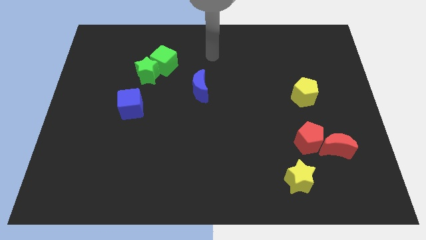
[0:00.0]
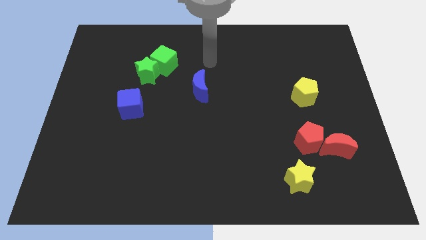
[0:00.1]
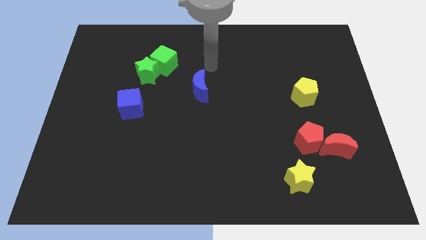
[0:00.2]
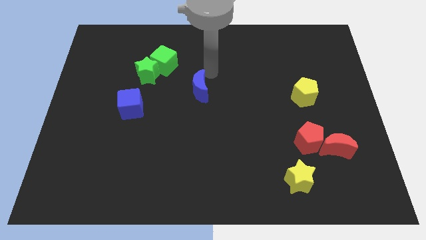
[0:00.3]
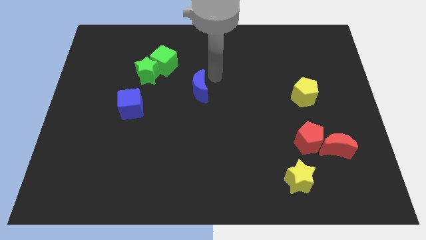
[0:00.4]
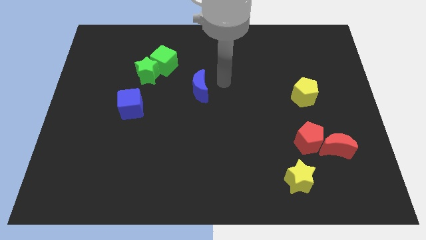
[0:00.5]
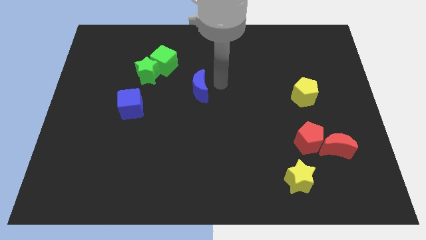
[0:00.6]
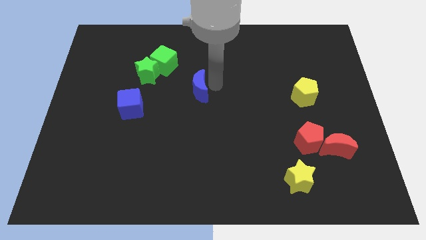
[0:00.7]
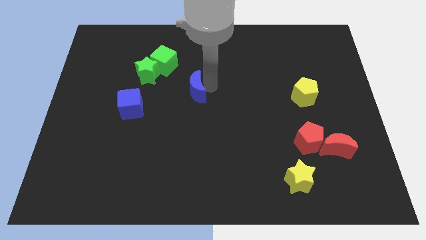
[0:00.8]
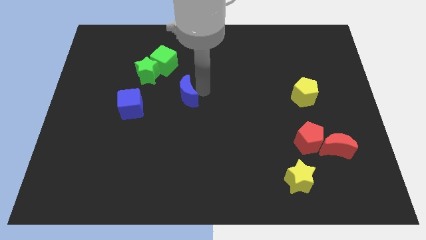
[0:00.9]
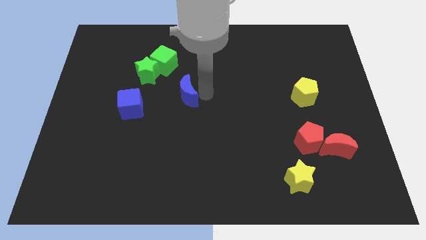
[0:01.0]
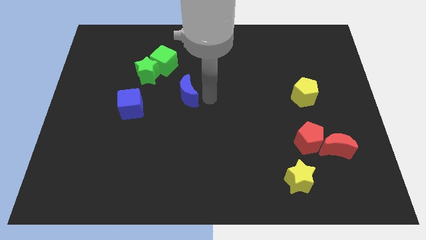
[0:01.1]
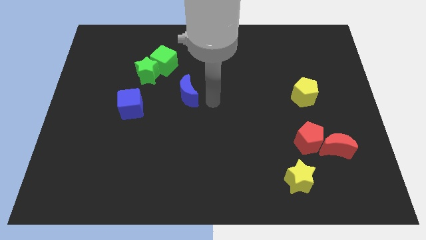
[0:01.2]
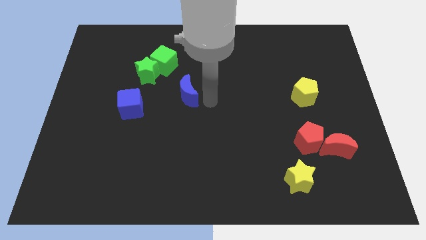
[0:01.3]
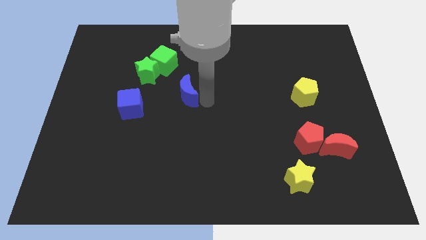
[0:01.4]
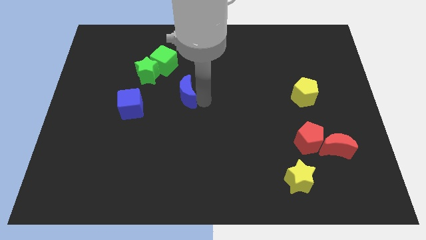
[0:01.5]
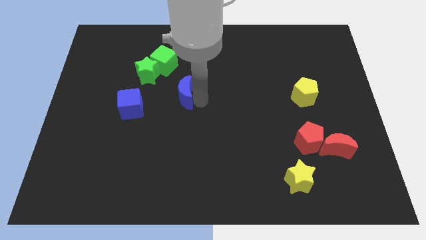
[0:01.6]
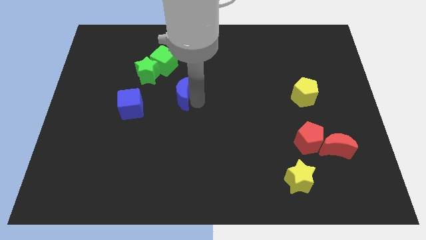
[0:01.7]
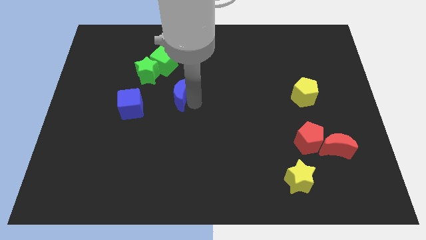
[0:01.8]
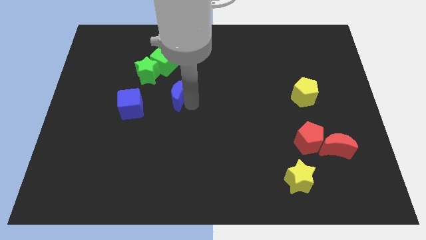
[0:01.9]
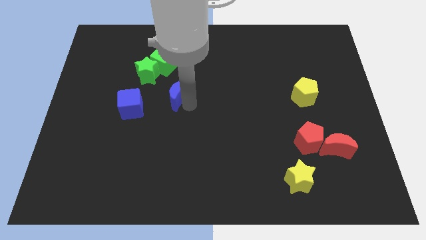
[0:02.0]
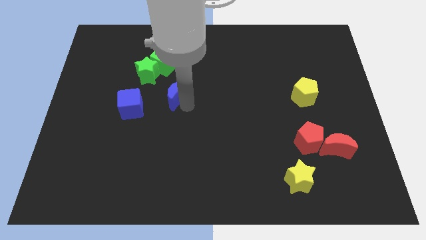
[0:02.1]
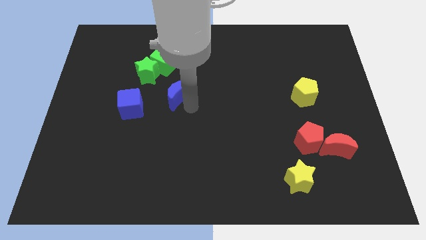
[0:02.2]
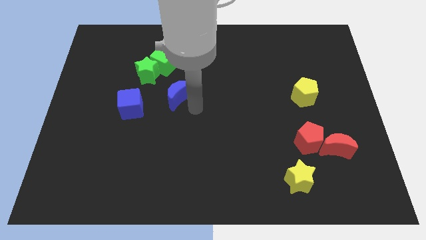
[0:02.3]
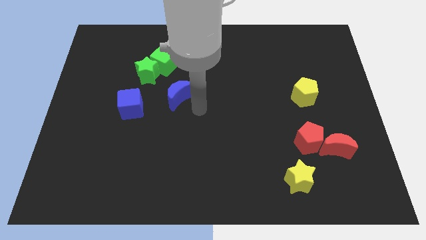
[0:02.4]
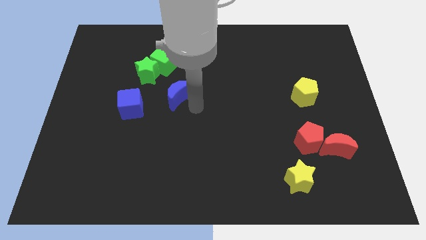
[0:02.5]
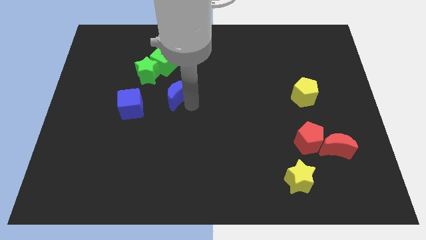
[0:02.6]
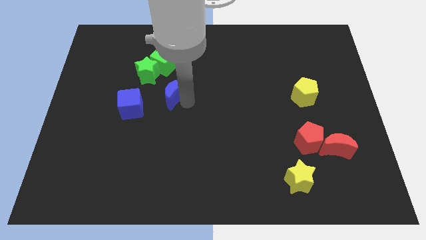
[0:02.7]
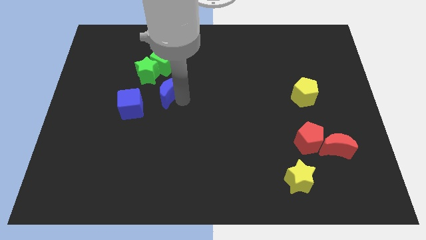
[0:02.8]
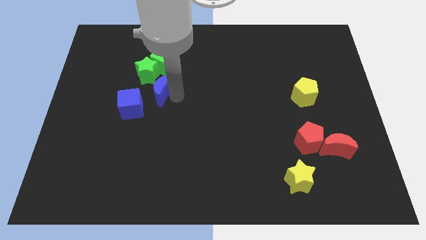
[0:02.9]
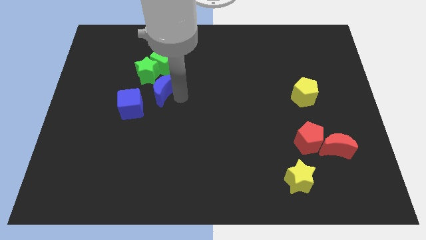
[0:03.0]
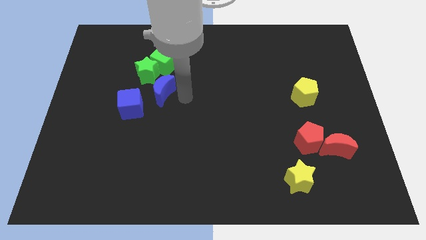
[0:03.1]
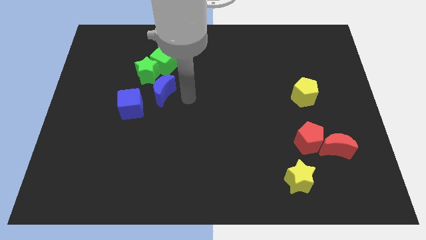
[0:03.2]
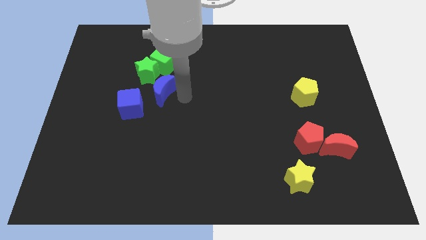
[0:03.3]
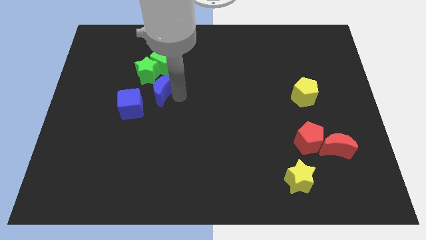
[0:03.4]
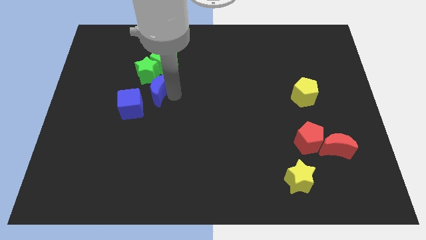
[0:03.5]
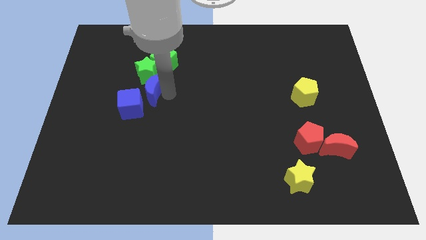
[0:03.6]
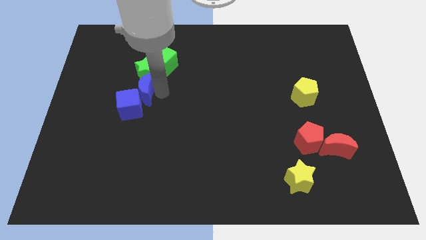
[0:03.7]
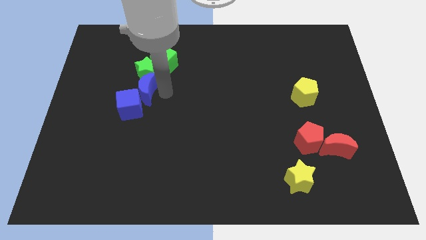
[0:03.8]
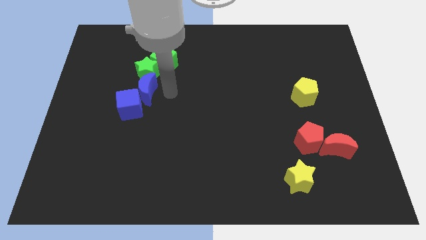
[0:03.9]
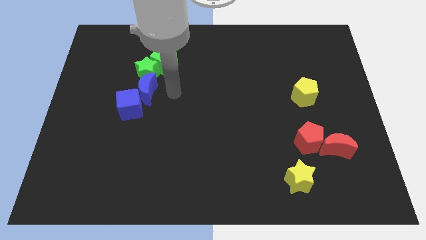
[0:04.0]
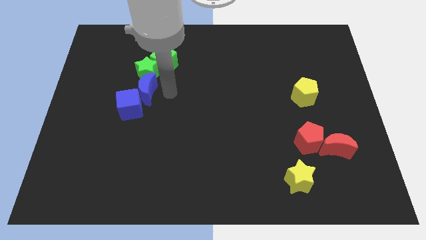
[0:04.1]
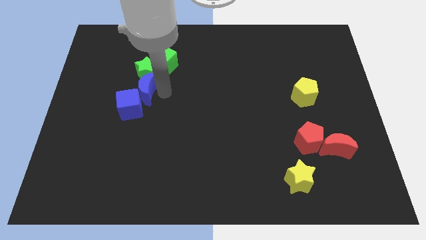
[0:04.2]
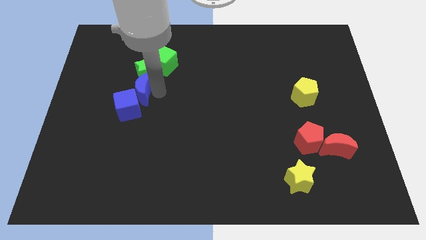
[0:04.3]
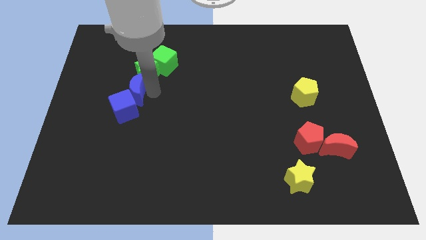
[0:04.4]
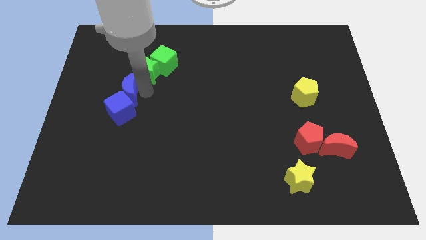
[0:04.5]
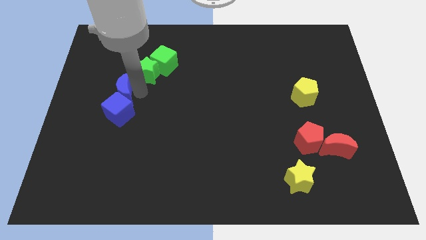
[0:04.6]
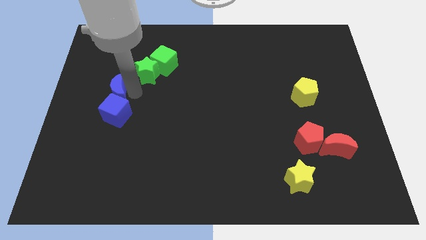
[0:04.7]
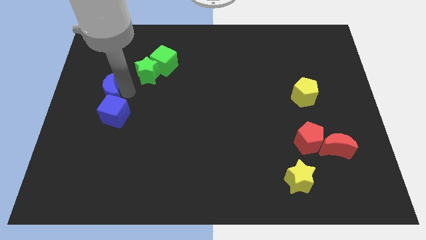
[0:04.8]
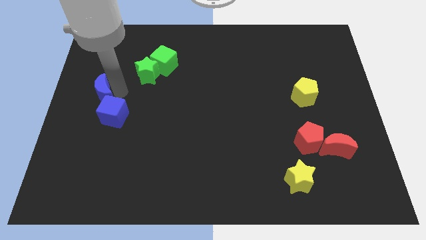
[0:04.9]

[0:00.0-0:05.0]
push the blue moon to the left side of the board

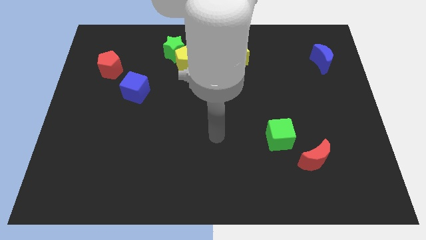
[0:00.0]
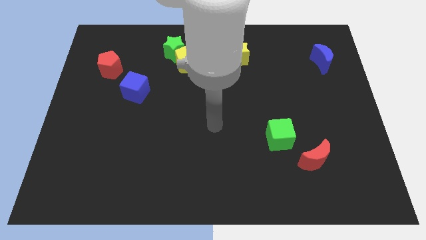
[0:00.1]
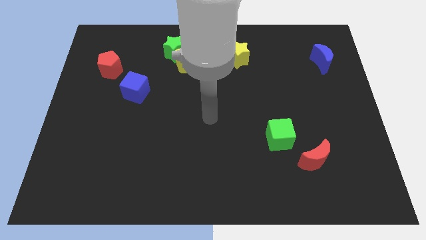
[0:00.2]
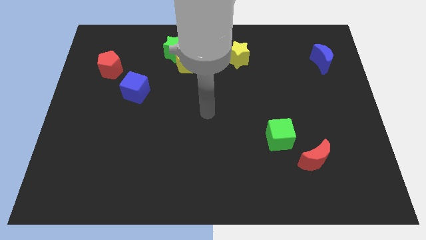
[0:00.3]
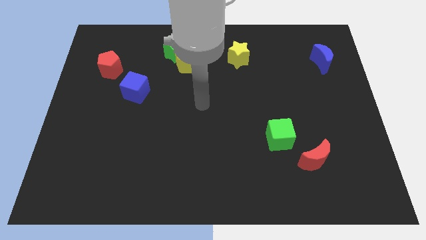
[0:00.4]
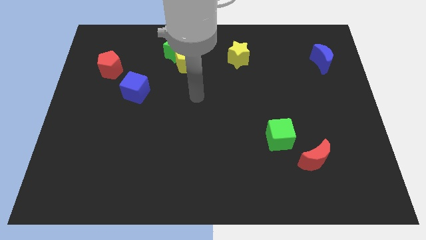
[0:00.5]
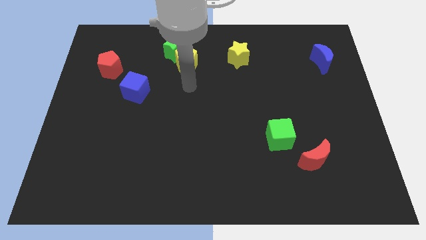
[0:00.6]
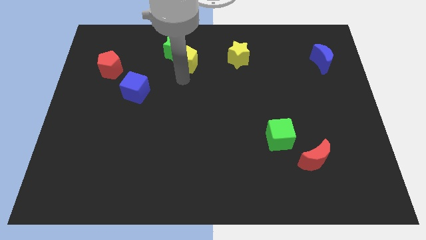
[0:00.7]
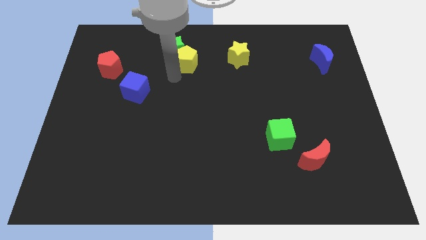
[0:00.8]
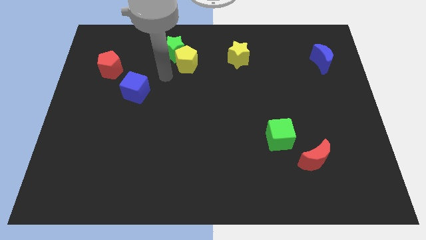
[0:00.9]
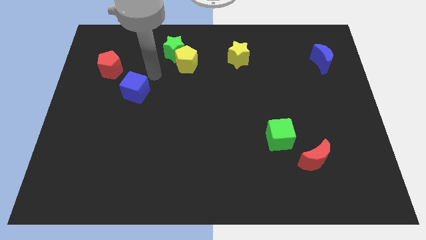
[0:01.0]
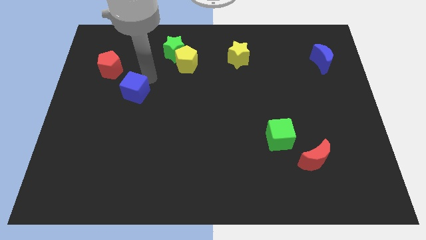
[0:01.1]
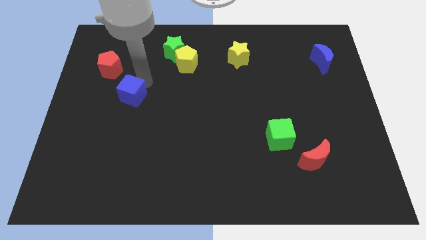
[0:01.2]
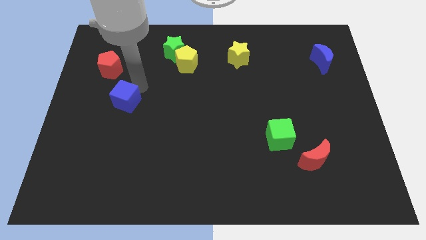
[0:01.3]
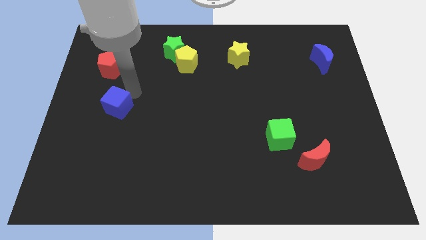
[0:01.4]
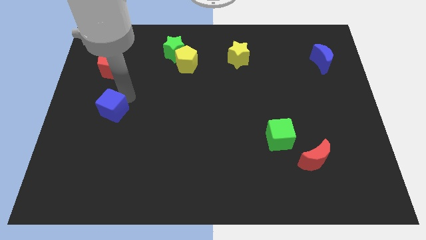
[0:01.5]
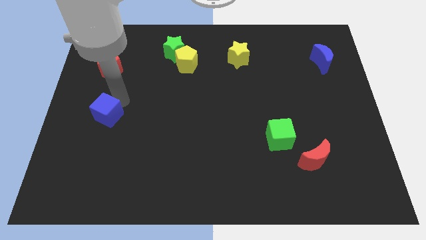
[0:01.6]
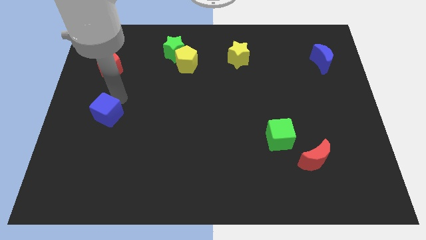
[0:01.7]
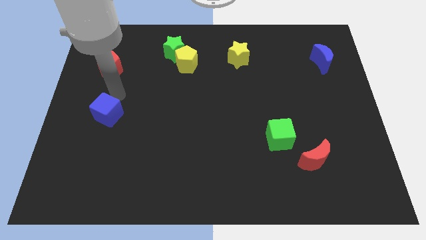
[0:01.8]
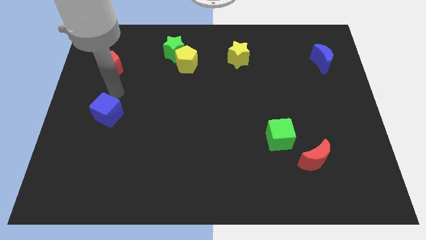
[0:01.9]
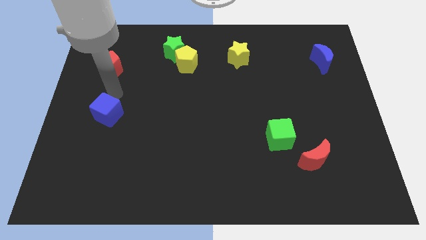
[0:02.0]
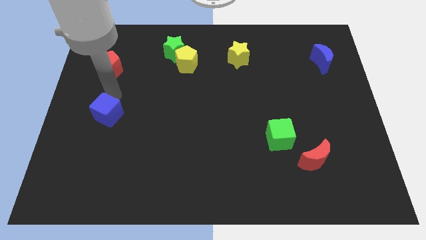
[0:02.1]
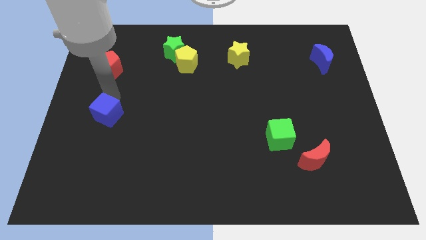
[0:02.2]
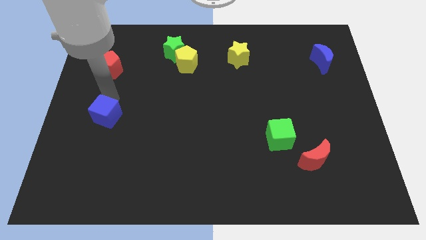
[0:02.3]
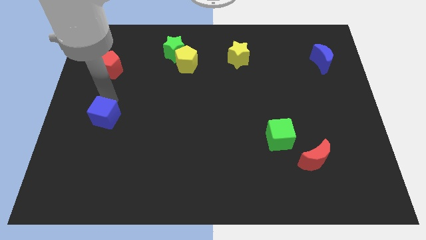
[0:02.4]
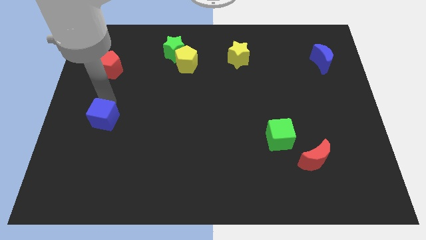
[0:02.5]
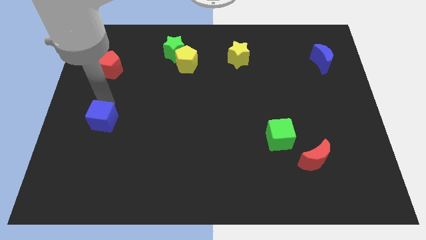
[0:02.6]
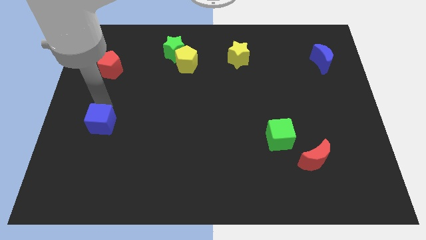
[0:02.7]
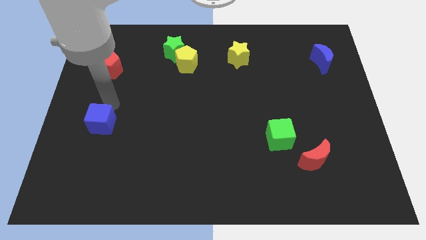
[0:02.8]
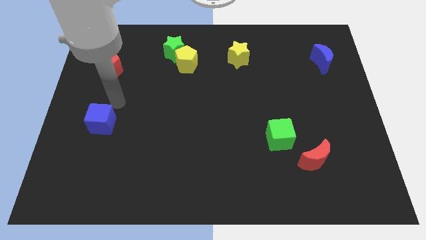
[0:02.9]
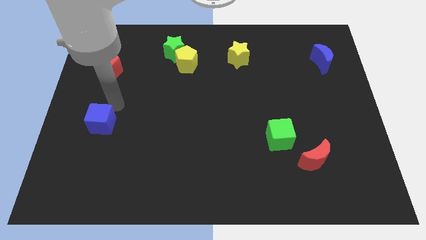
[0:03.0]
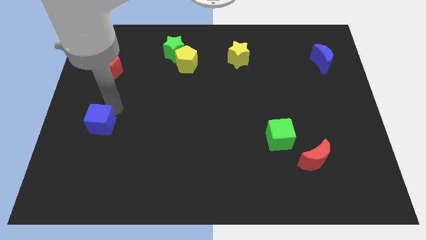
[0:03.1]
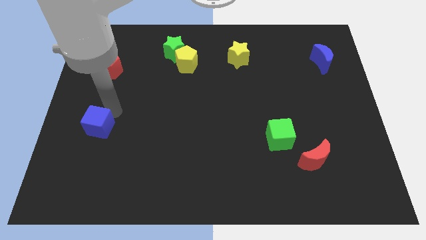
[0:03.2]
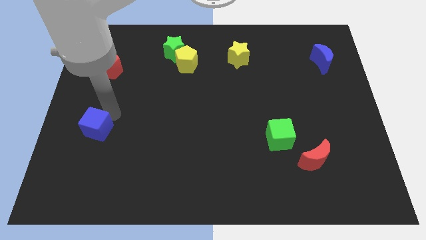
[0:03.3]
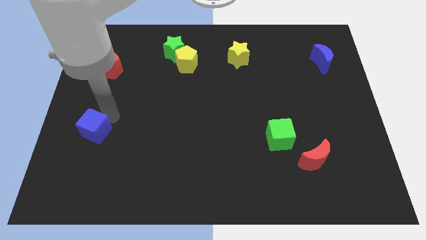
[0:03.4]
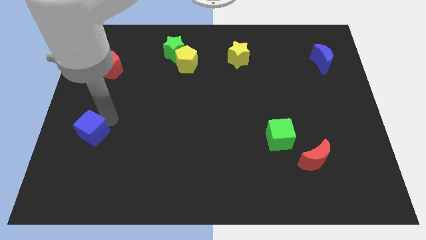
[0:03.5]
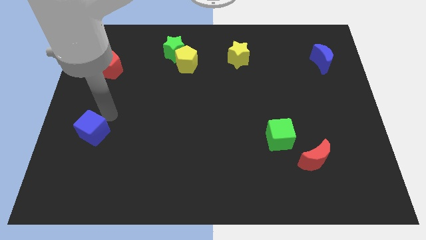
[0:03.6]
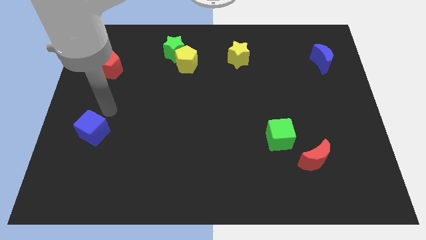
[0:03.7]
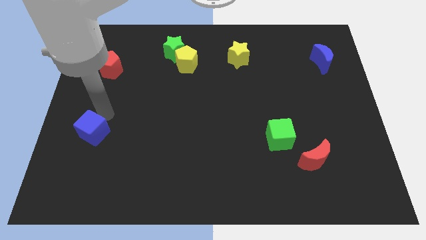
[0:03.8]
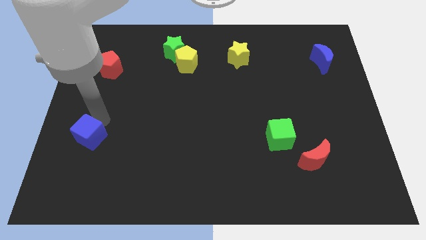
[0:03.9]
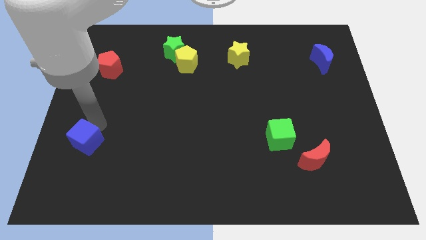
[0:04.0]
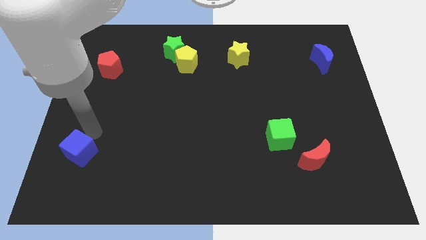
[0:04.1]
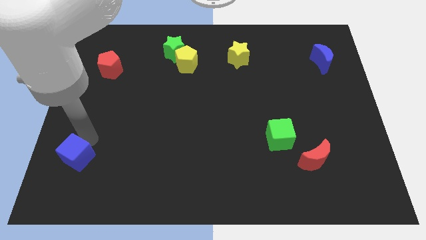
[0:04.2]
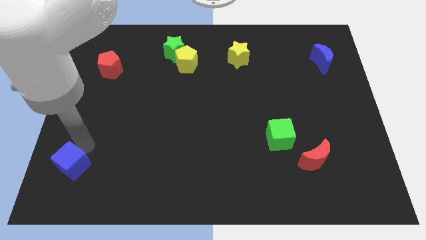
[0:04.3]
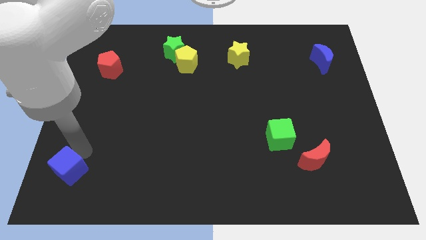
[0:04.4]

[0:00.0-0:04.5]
put the blue cube to the lower left corner
